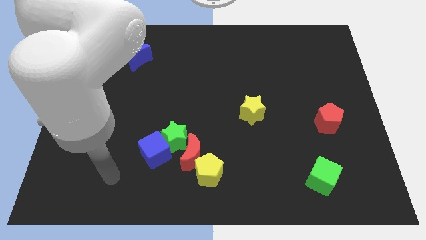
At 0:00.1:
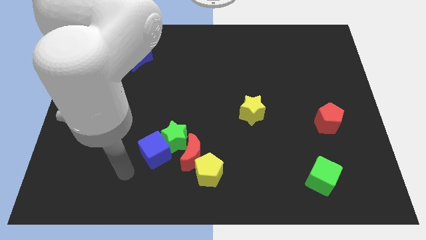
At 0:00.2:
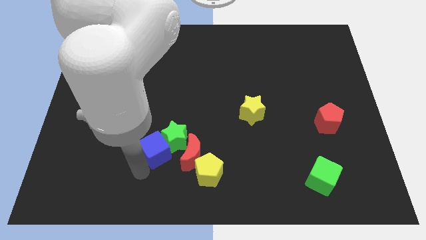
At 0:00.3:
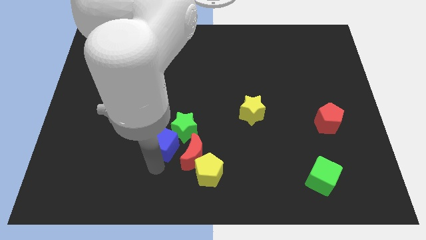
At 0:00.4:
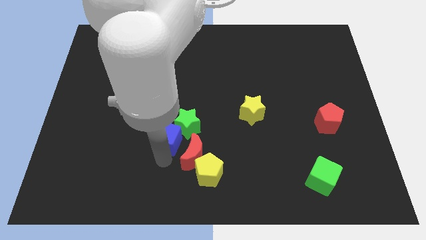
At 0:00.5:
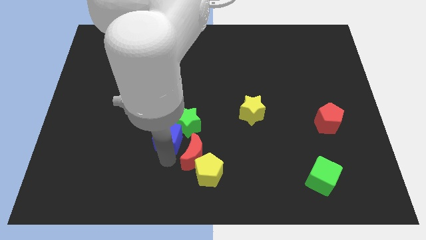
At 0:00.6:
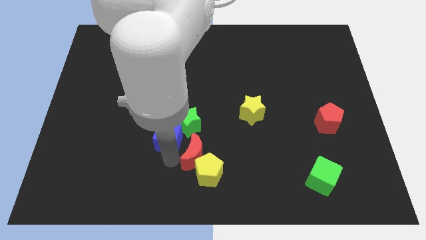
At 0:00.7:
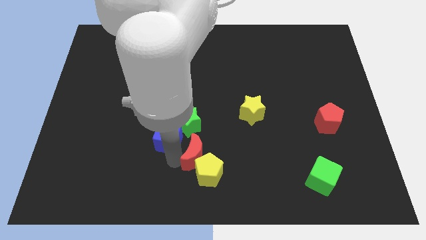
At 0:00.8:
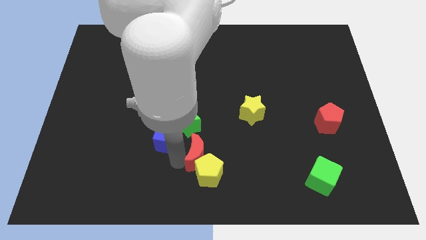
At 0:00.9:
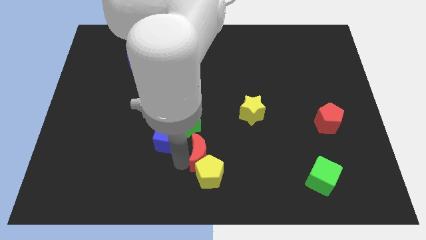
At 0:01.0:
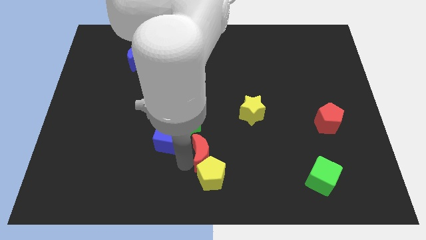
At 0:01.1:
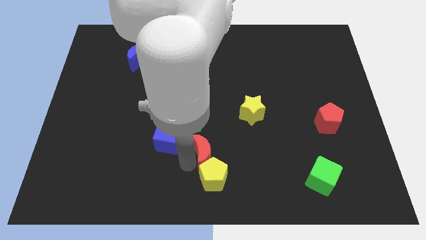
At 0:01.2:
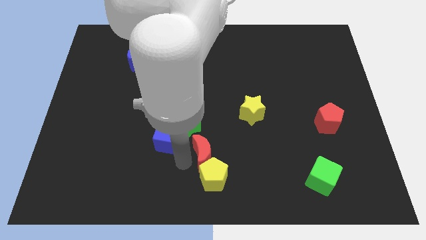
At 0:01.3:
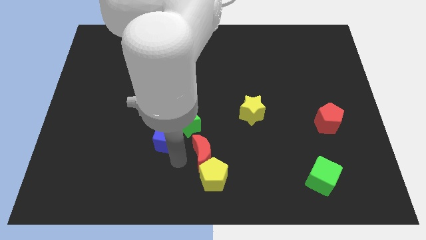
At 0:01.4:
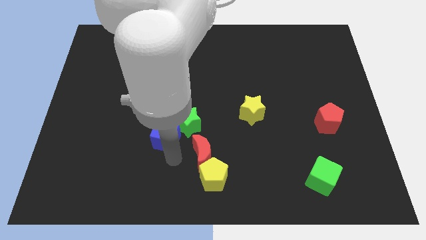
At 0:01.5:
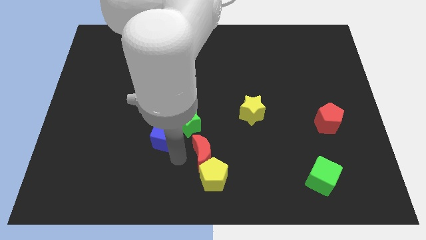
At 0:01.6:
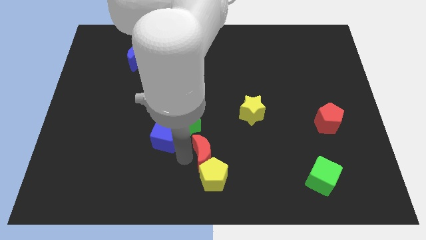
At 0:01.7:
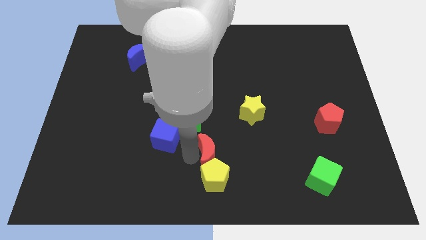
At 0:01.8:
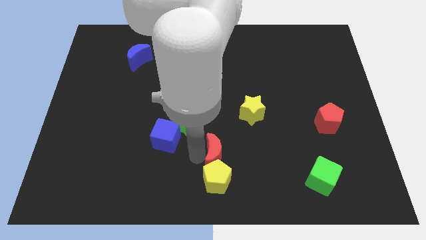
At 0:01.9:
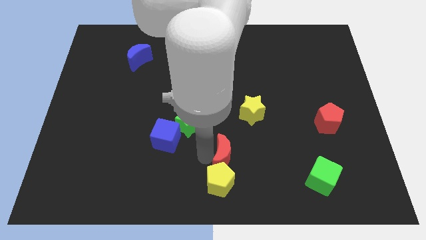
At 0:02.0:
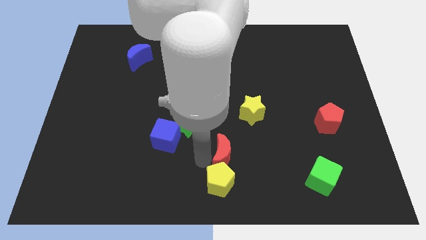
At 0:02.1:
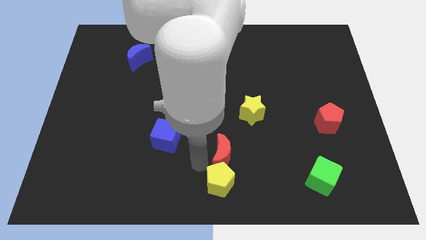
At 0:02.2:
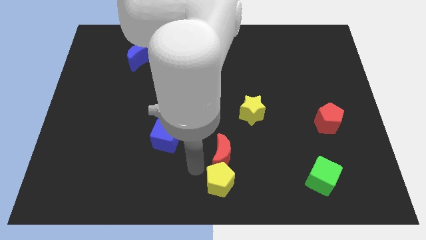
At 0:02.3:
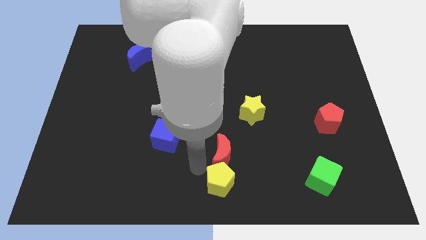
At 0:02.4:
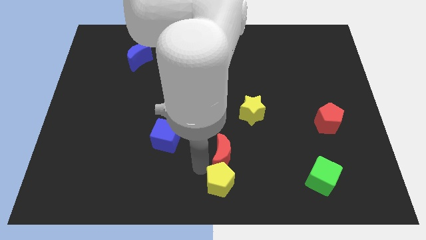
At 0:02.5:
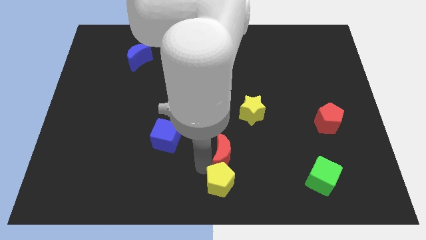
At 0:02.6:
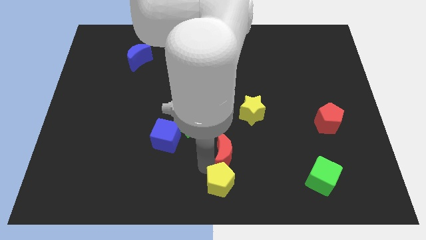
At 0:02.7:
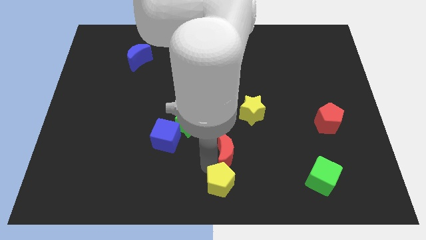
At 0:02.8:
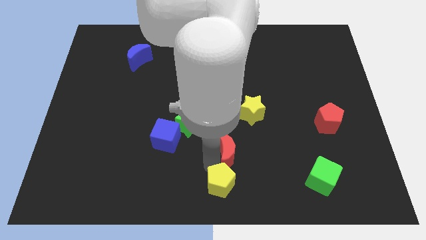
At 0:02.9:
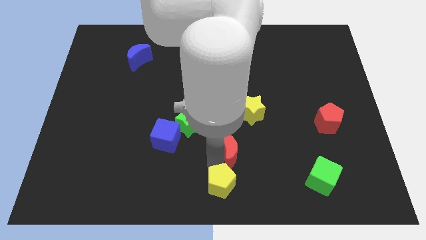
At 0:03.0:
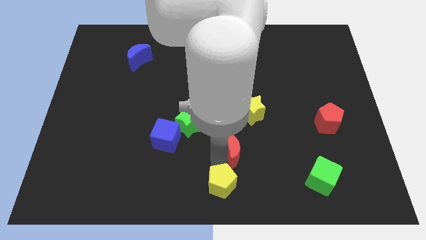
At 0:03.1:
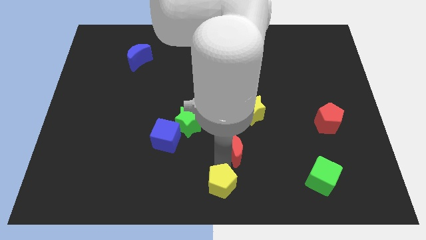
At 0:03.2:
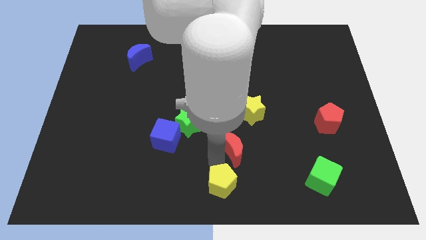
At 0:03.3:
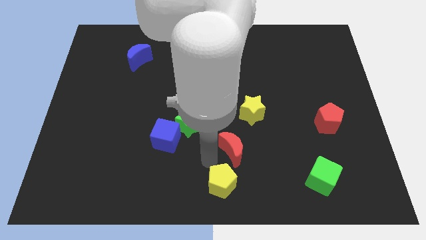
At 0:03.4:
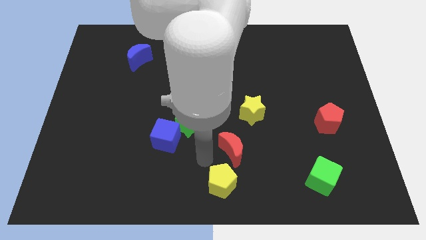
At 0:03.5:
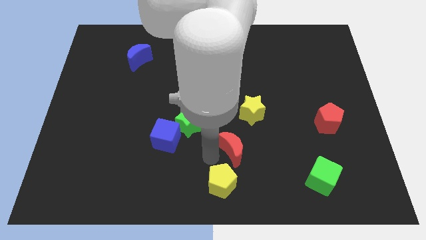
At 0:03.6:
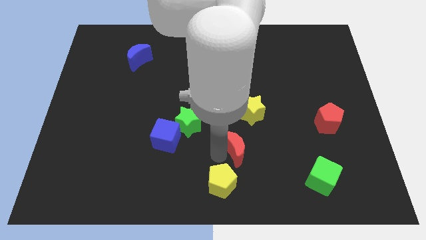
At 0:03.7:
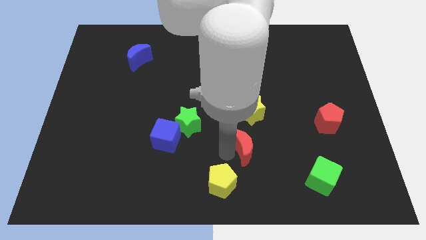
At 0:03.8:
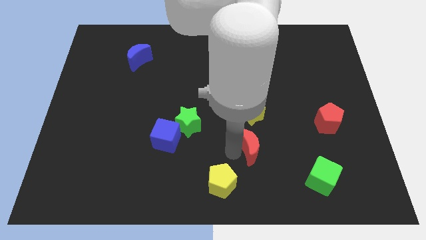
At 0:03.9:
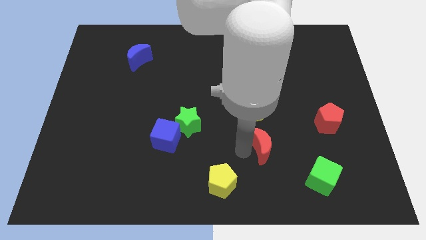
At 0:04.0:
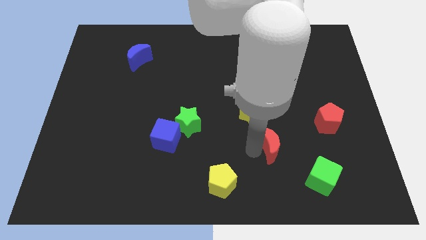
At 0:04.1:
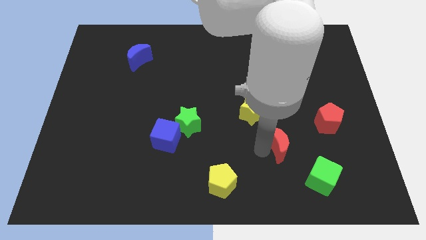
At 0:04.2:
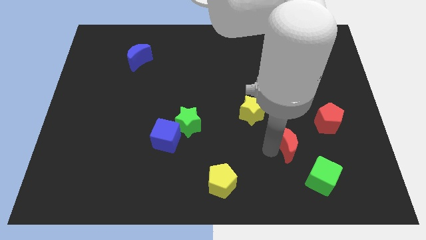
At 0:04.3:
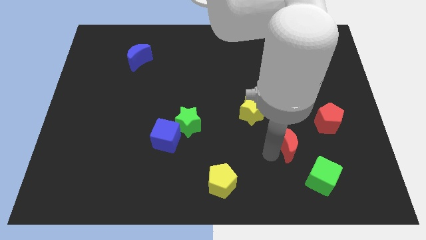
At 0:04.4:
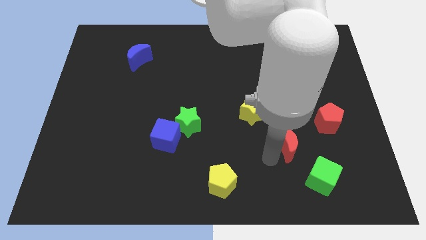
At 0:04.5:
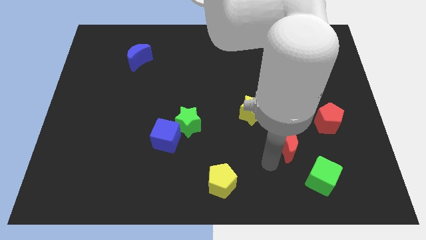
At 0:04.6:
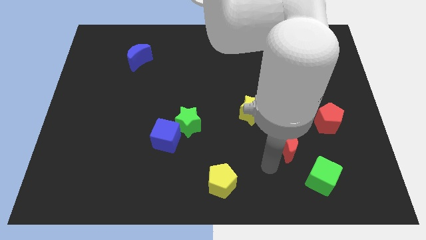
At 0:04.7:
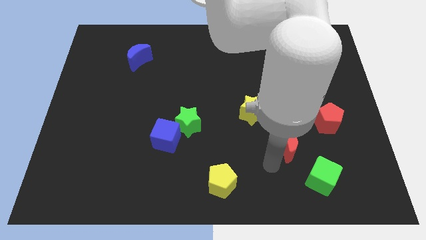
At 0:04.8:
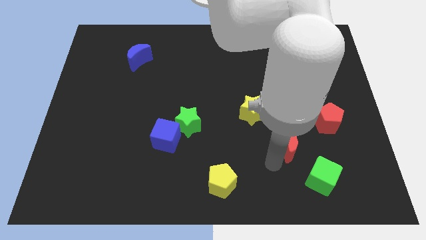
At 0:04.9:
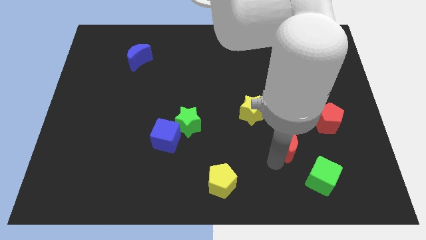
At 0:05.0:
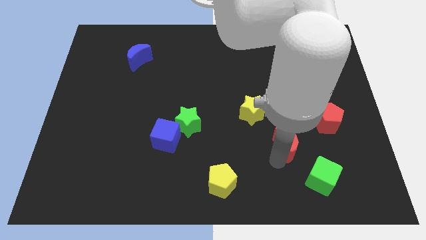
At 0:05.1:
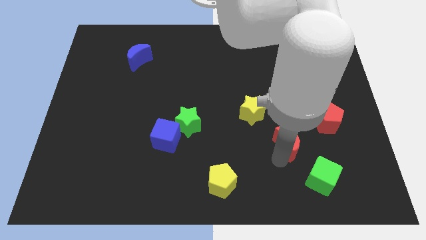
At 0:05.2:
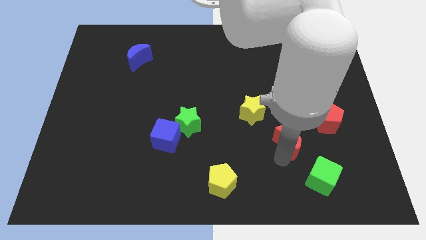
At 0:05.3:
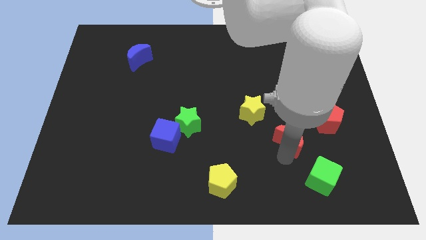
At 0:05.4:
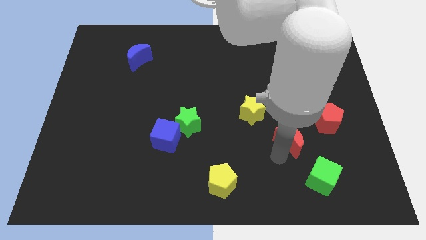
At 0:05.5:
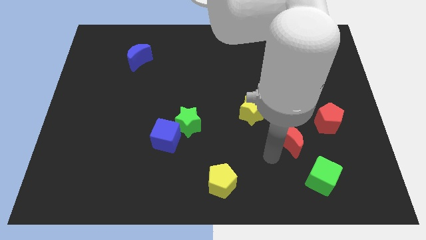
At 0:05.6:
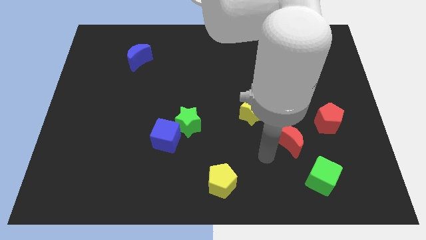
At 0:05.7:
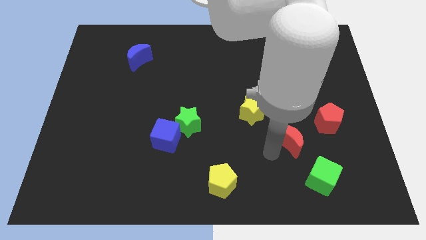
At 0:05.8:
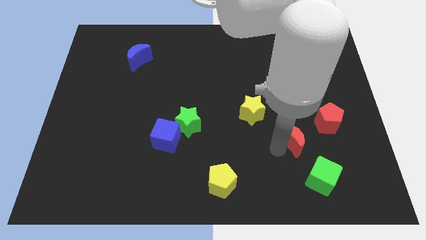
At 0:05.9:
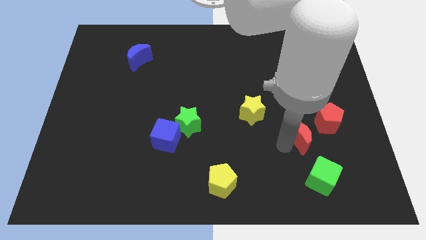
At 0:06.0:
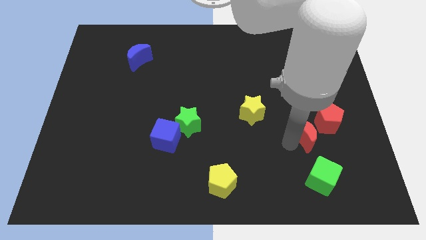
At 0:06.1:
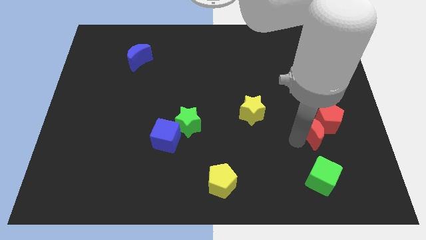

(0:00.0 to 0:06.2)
put the red moon next to the red pentagon
